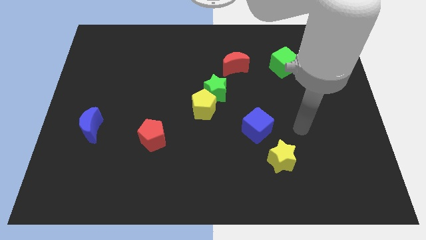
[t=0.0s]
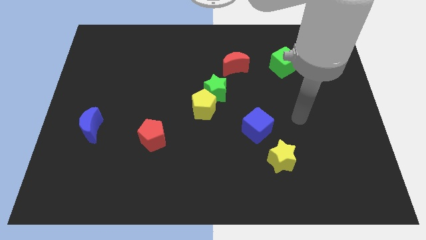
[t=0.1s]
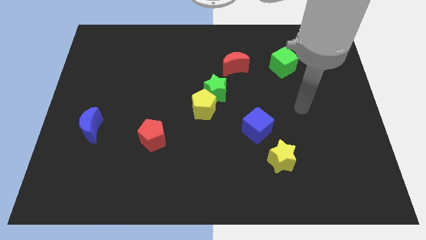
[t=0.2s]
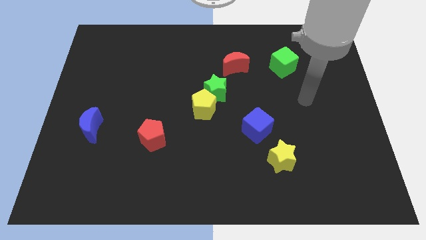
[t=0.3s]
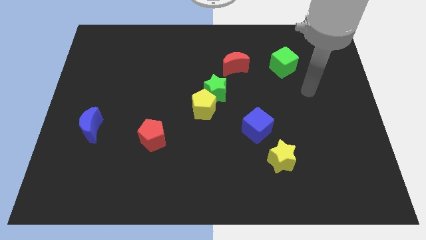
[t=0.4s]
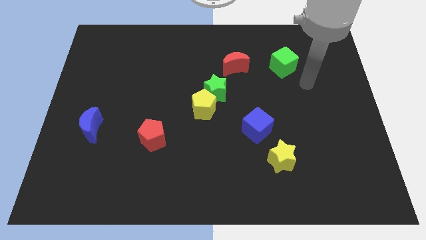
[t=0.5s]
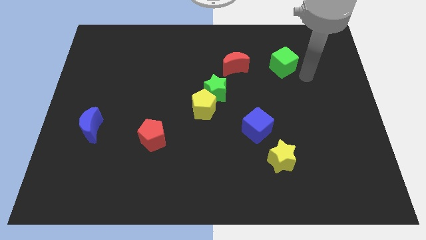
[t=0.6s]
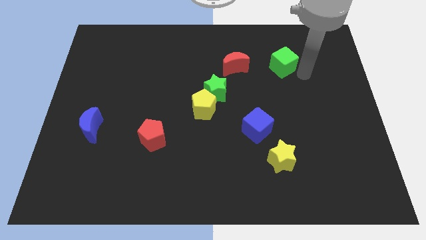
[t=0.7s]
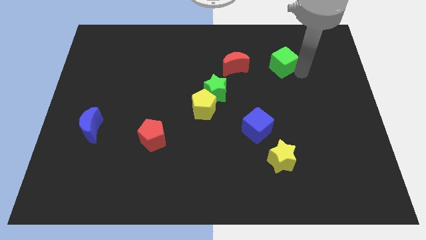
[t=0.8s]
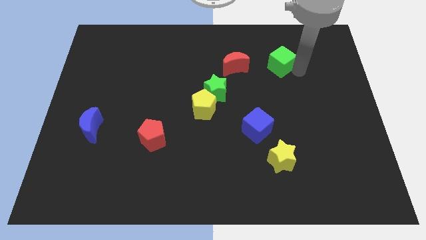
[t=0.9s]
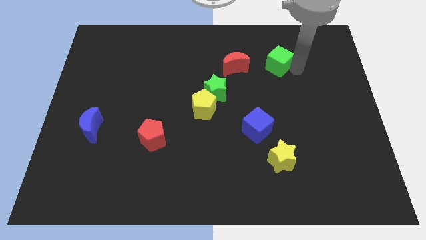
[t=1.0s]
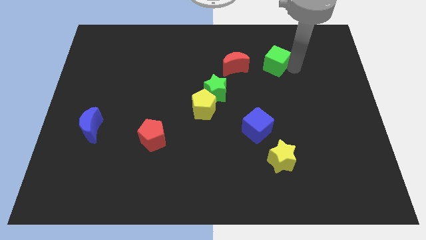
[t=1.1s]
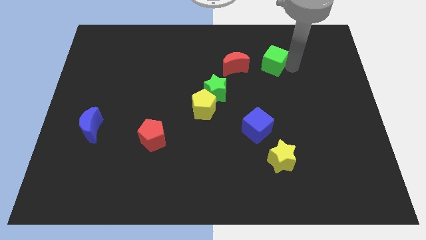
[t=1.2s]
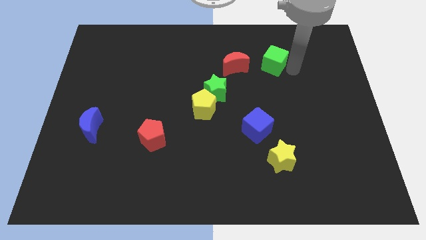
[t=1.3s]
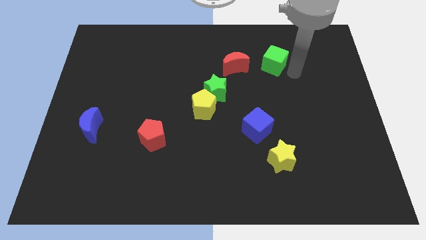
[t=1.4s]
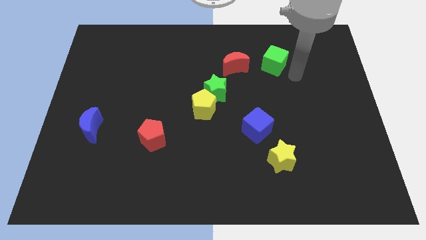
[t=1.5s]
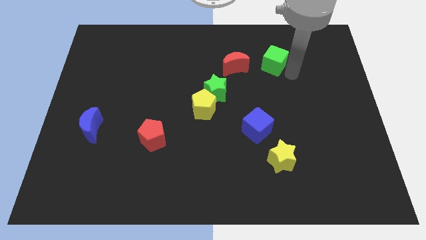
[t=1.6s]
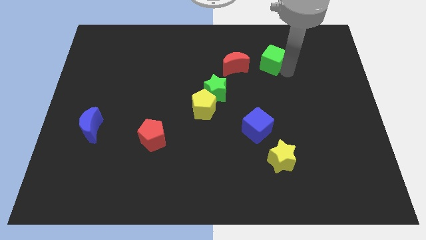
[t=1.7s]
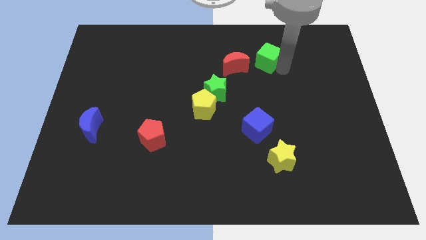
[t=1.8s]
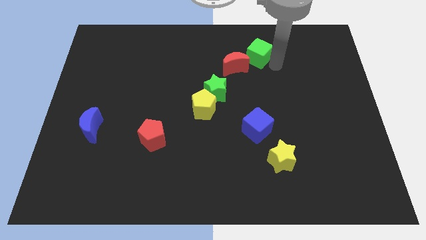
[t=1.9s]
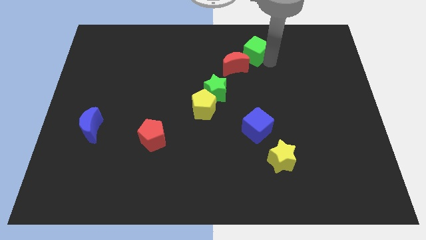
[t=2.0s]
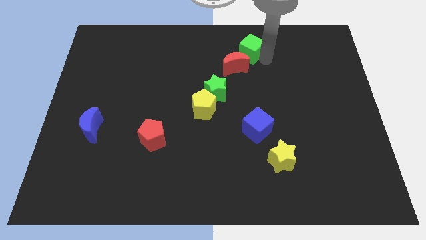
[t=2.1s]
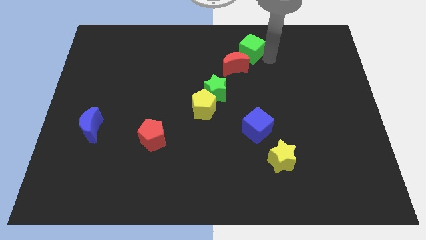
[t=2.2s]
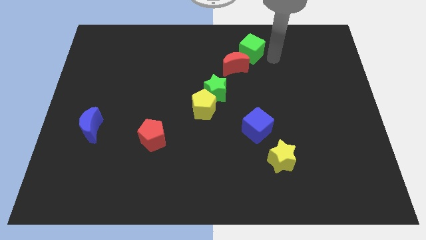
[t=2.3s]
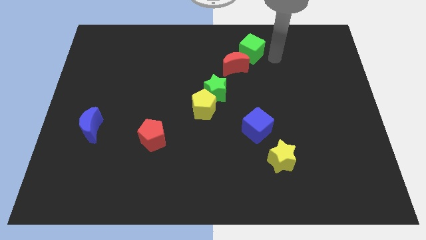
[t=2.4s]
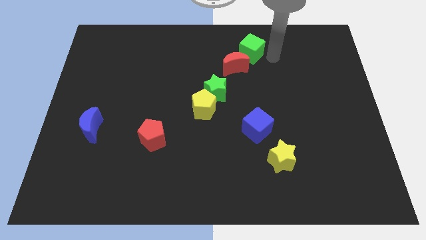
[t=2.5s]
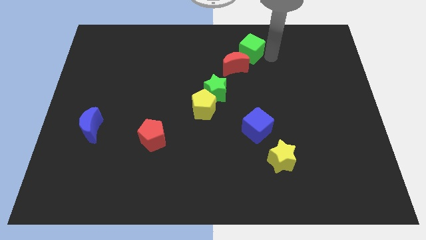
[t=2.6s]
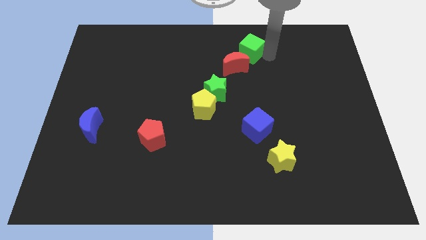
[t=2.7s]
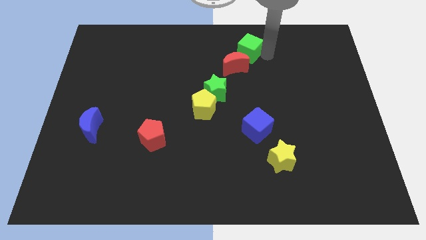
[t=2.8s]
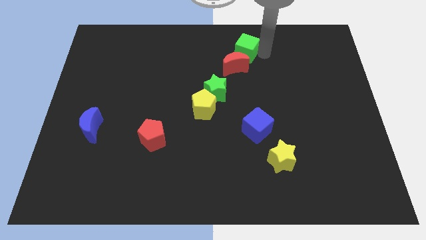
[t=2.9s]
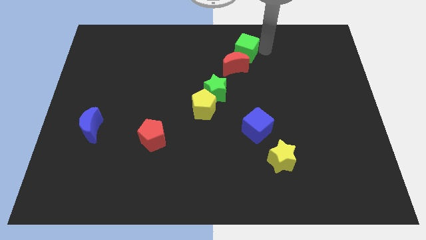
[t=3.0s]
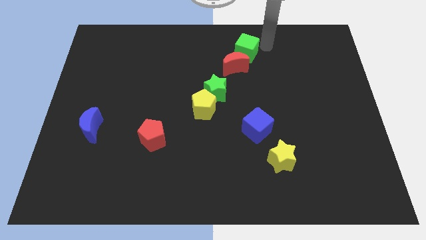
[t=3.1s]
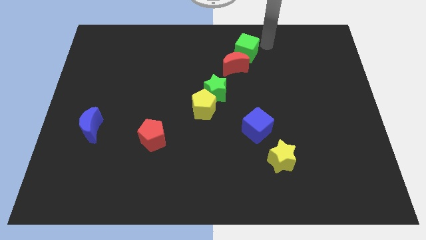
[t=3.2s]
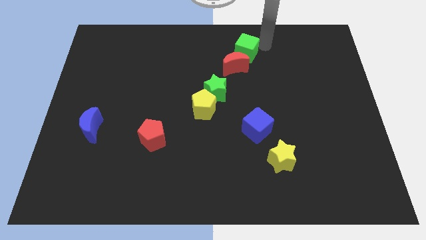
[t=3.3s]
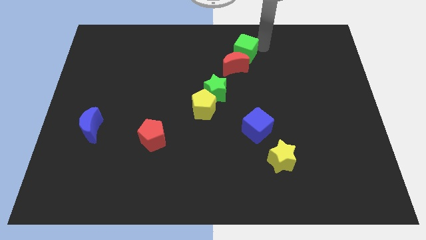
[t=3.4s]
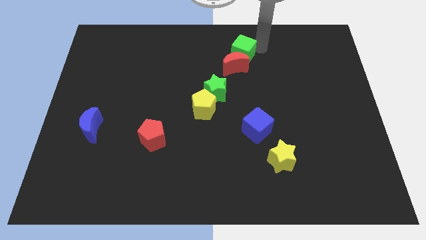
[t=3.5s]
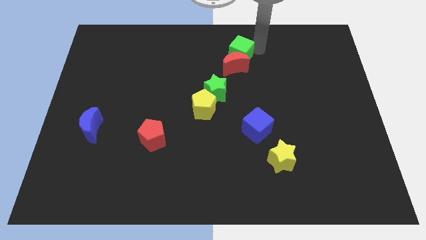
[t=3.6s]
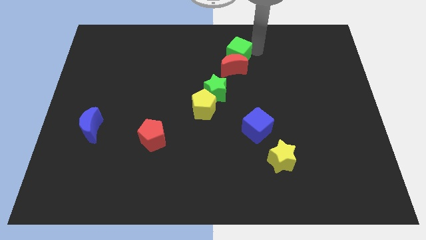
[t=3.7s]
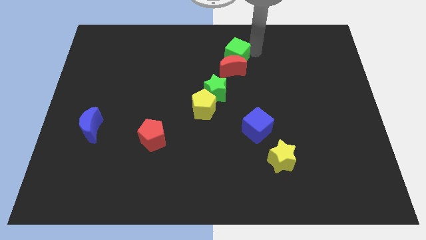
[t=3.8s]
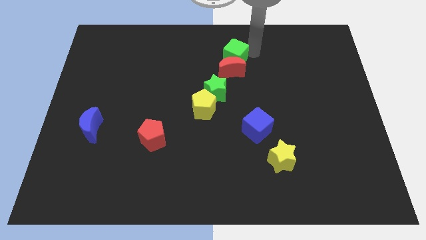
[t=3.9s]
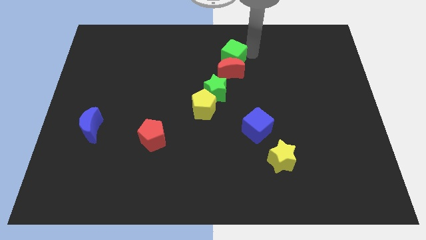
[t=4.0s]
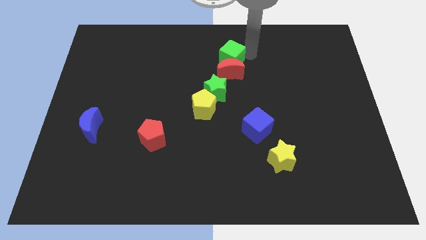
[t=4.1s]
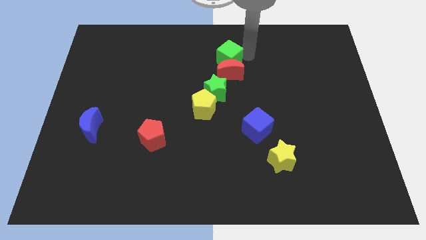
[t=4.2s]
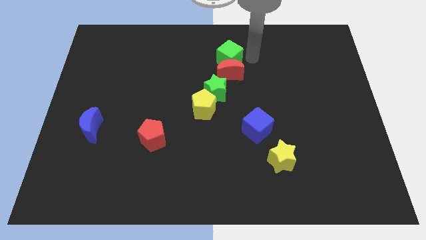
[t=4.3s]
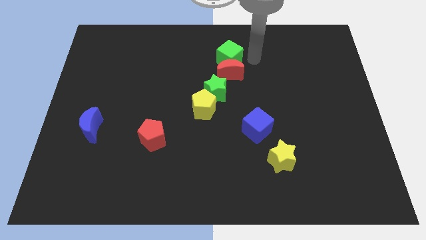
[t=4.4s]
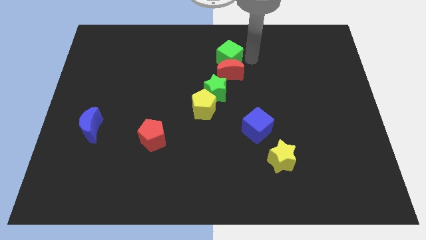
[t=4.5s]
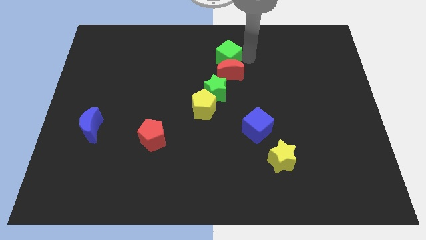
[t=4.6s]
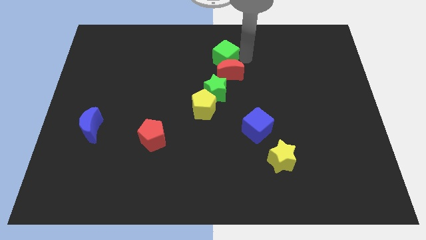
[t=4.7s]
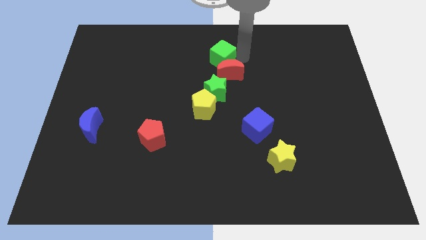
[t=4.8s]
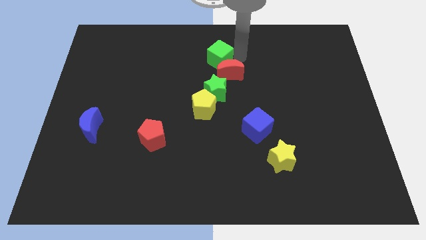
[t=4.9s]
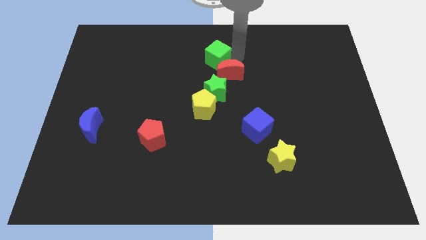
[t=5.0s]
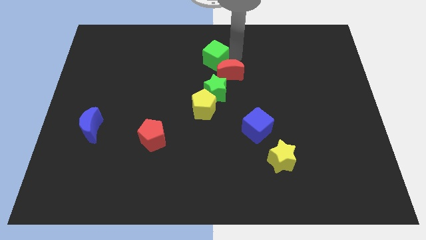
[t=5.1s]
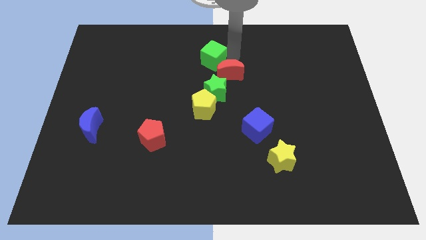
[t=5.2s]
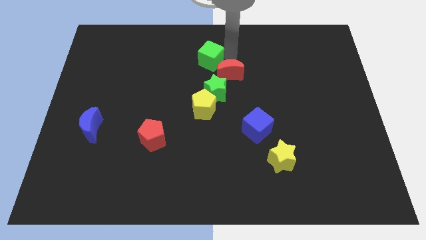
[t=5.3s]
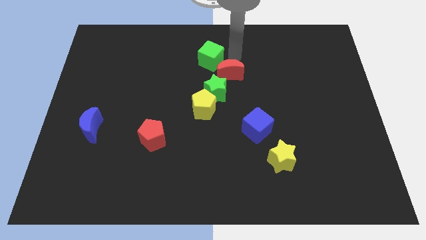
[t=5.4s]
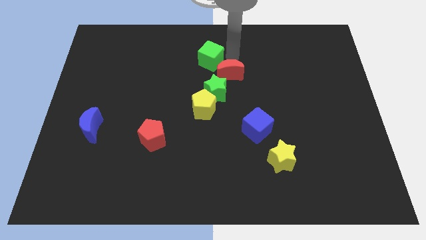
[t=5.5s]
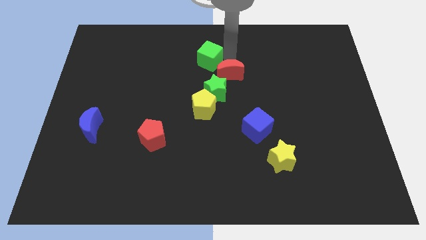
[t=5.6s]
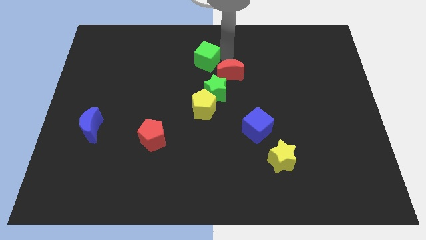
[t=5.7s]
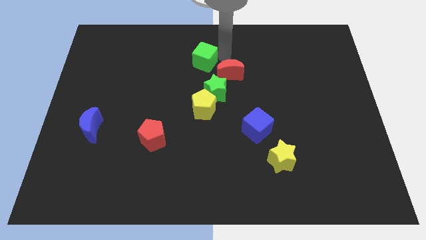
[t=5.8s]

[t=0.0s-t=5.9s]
push the green cube left

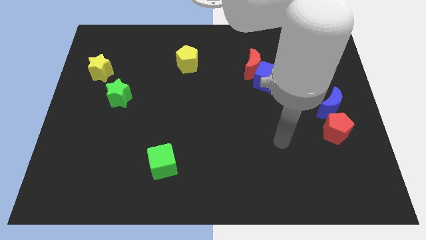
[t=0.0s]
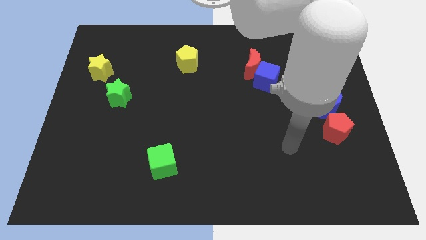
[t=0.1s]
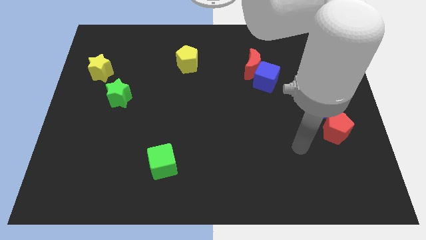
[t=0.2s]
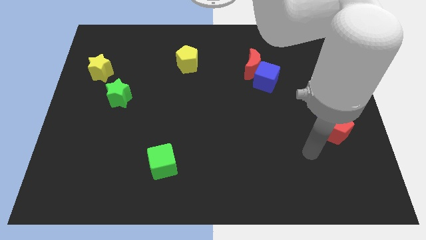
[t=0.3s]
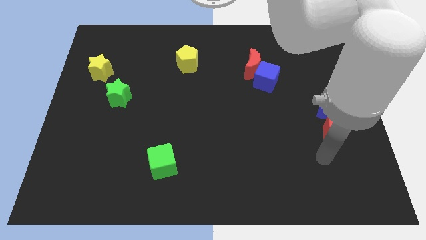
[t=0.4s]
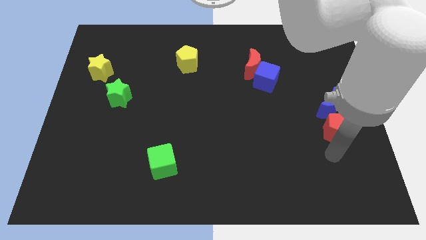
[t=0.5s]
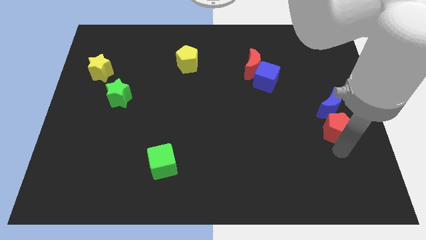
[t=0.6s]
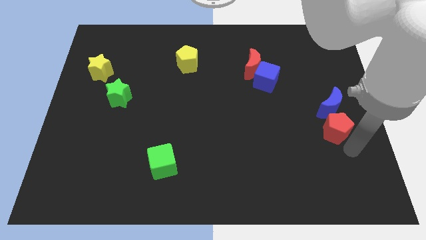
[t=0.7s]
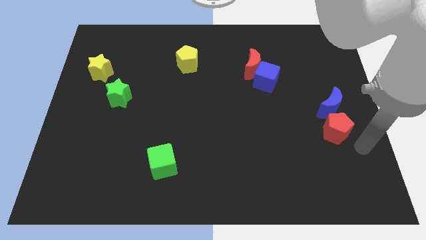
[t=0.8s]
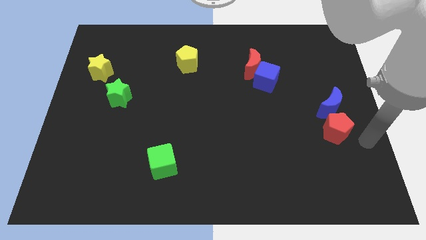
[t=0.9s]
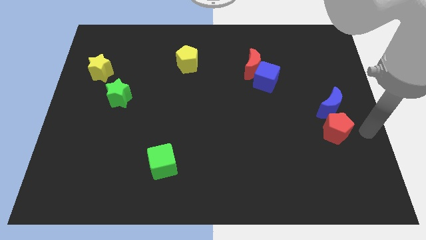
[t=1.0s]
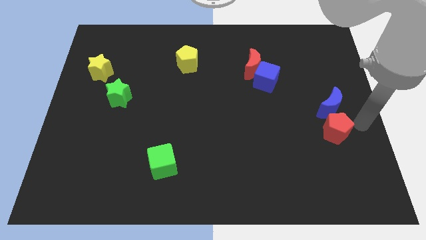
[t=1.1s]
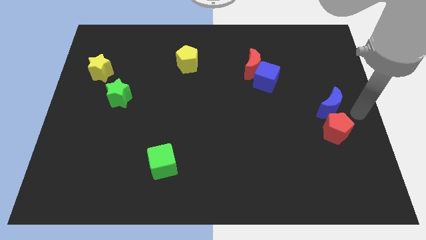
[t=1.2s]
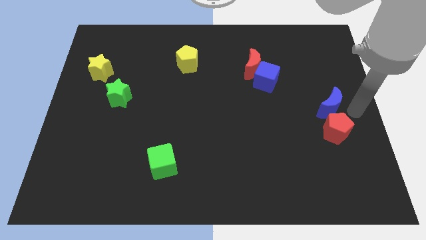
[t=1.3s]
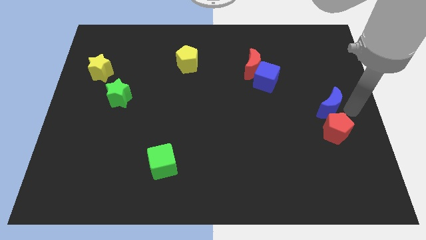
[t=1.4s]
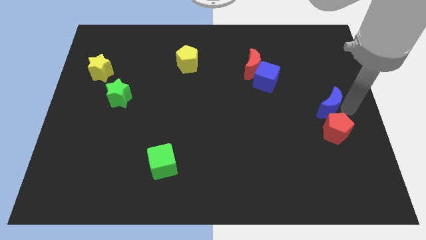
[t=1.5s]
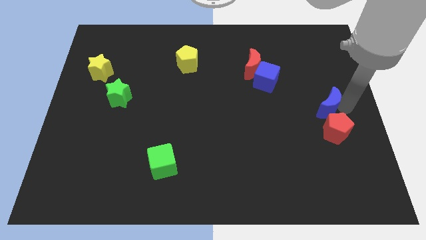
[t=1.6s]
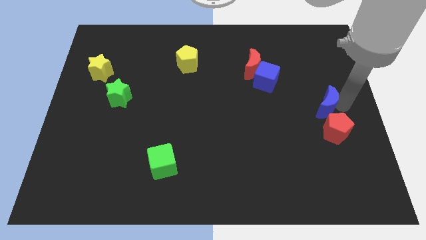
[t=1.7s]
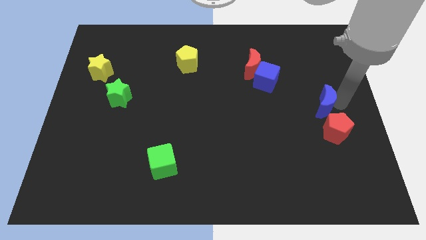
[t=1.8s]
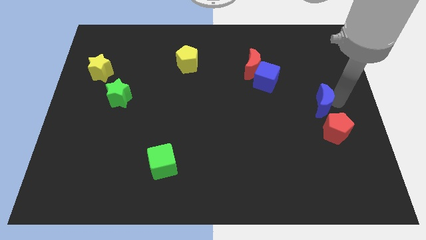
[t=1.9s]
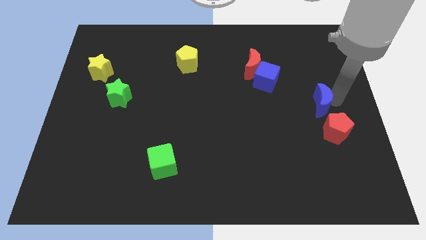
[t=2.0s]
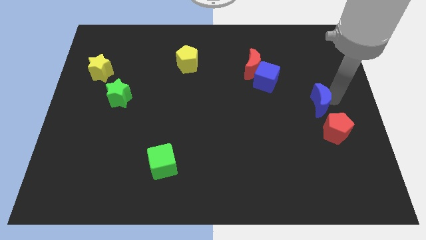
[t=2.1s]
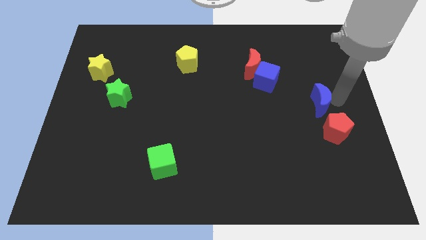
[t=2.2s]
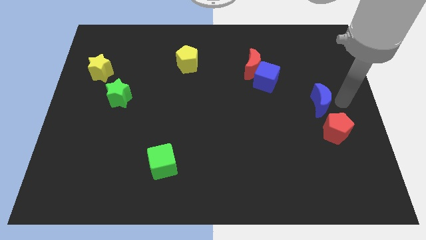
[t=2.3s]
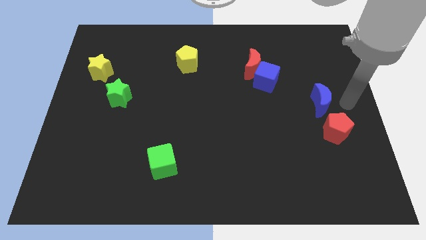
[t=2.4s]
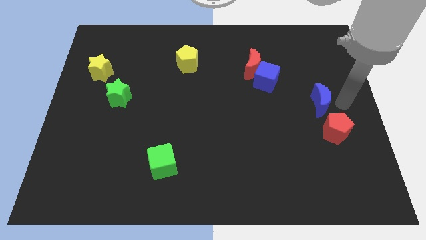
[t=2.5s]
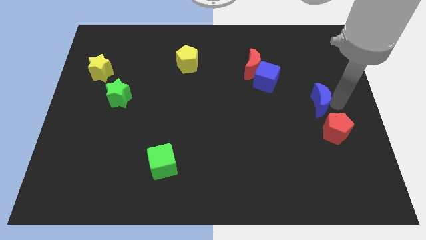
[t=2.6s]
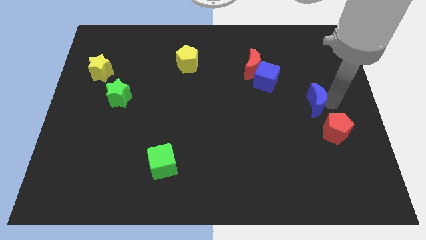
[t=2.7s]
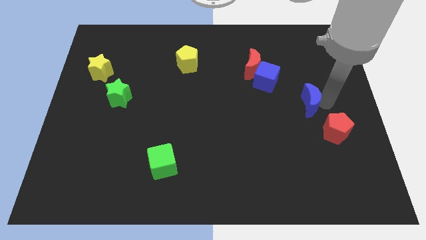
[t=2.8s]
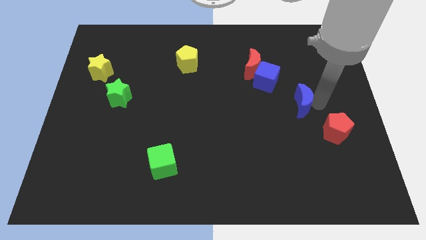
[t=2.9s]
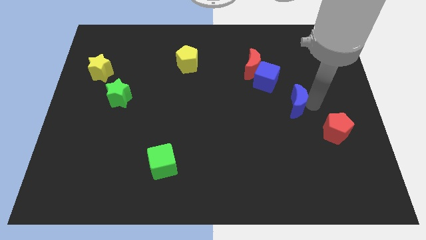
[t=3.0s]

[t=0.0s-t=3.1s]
move the blue moon a bit left
